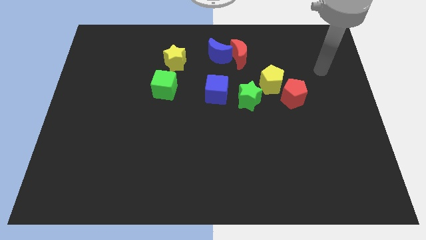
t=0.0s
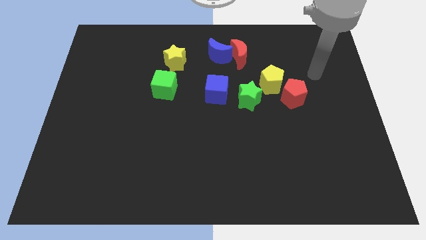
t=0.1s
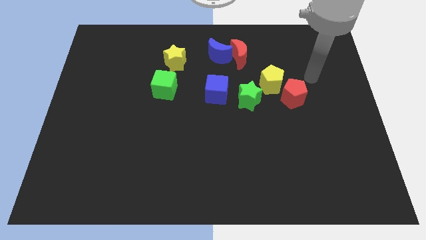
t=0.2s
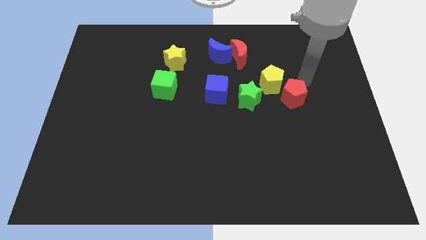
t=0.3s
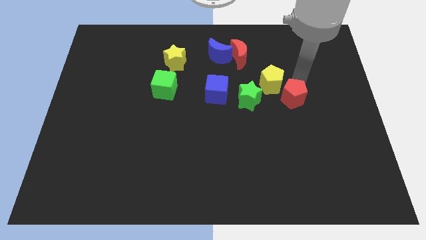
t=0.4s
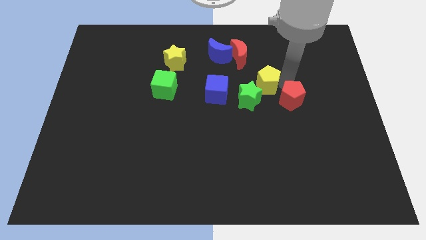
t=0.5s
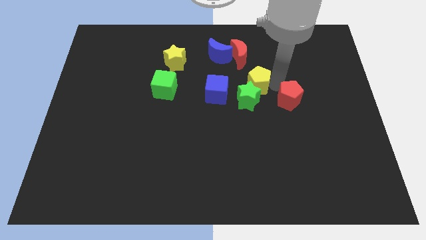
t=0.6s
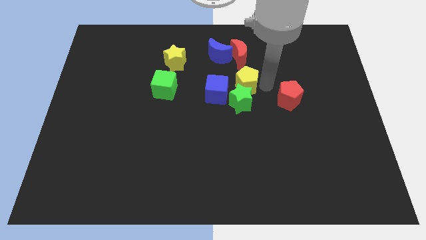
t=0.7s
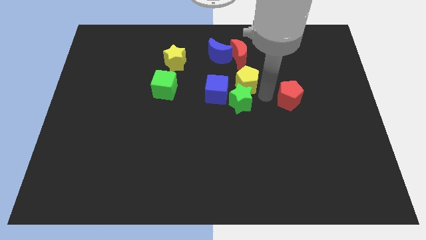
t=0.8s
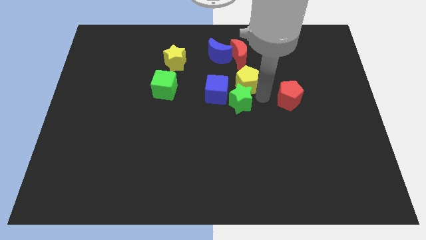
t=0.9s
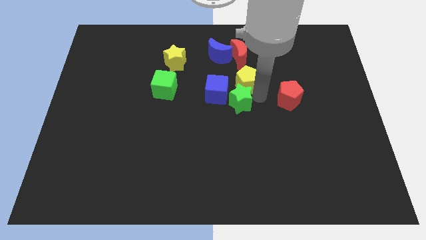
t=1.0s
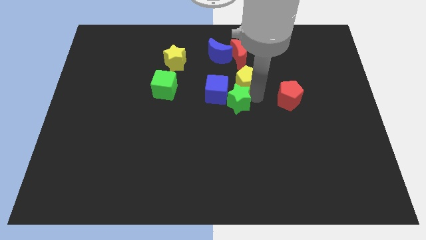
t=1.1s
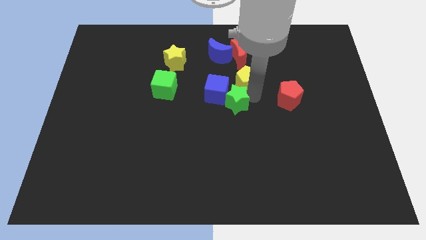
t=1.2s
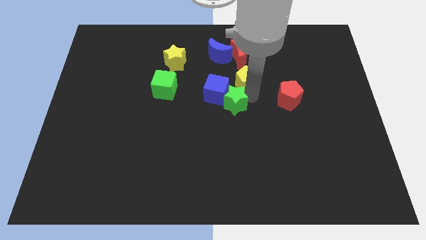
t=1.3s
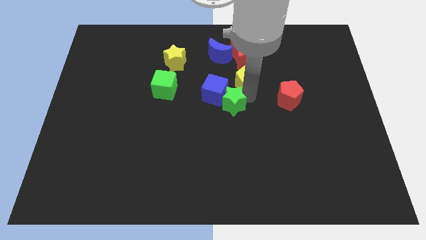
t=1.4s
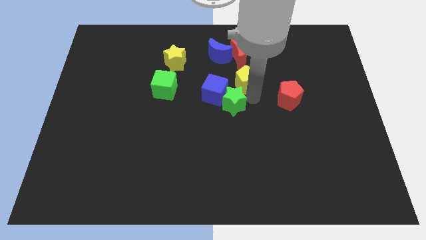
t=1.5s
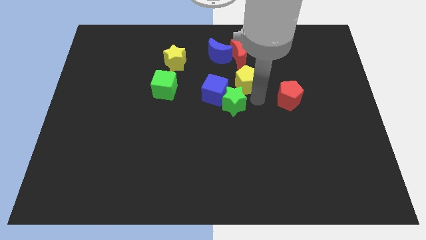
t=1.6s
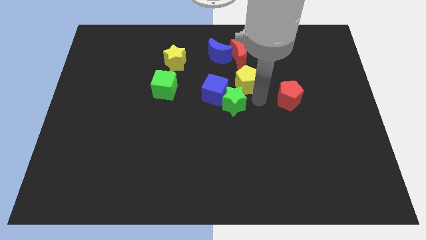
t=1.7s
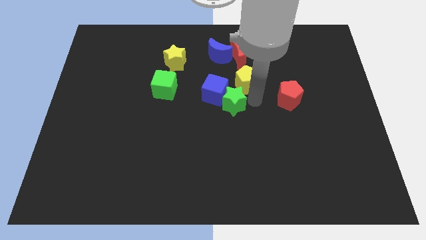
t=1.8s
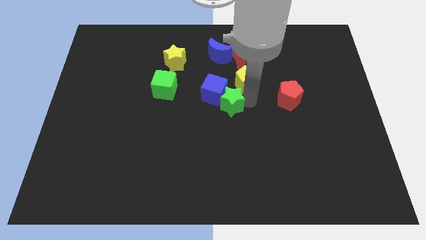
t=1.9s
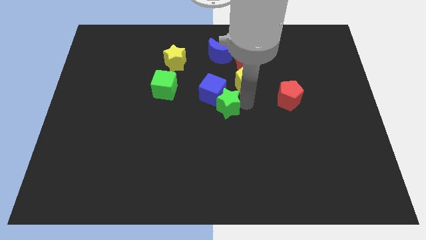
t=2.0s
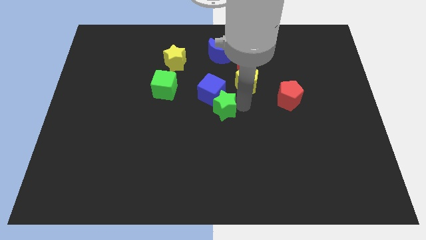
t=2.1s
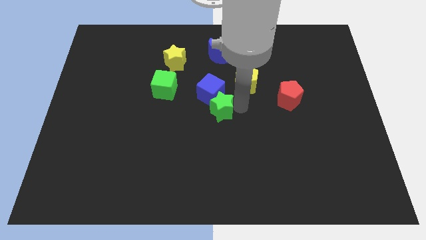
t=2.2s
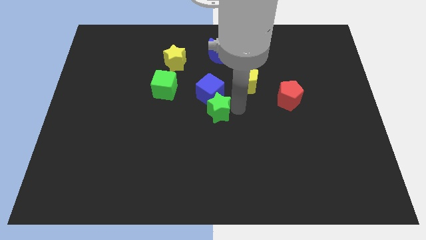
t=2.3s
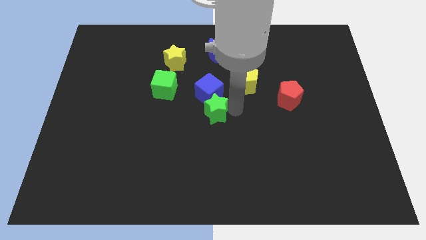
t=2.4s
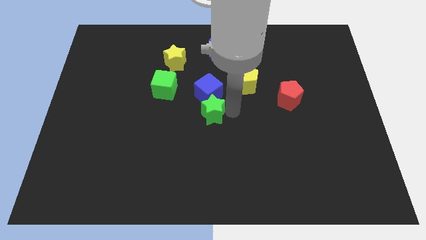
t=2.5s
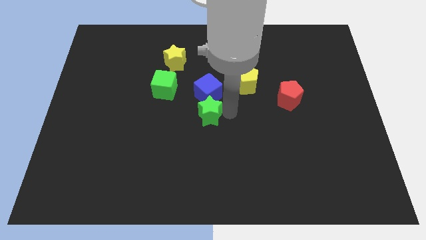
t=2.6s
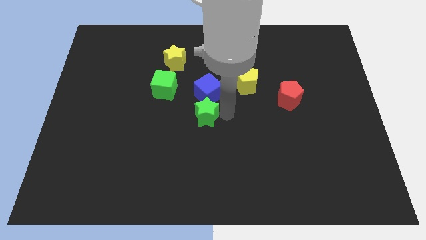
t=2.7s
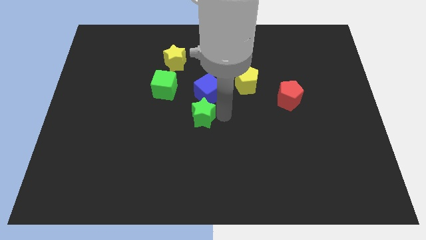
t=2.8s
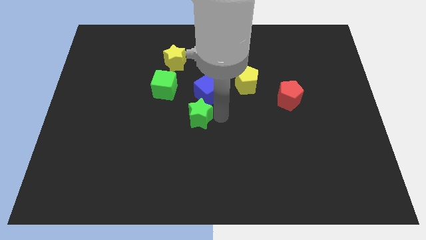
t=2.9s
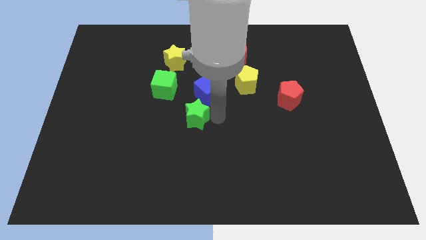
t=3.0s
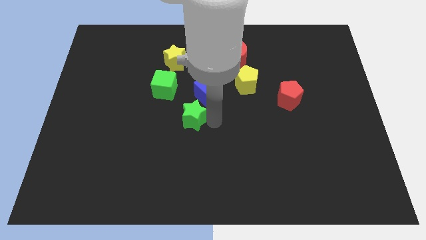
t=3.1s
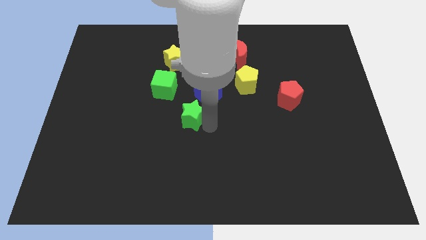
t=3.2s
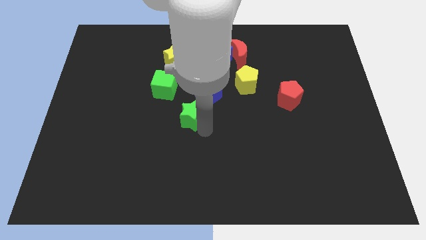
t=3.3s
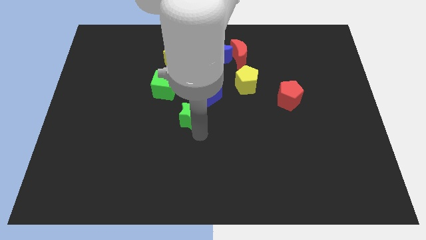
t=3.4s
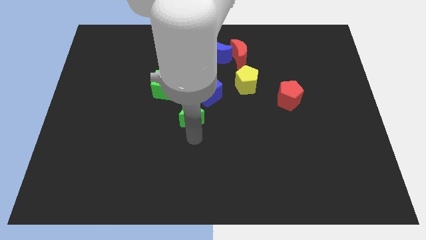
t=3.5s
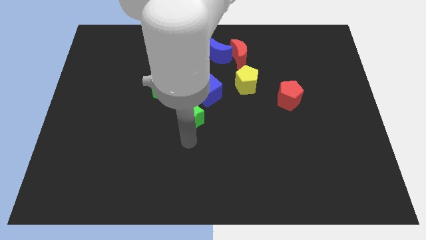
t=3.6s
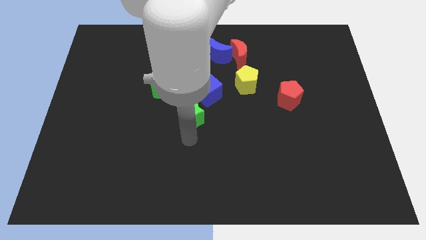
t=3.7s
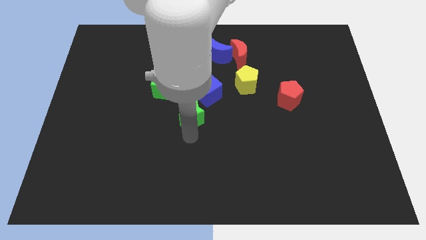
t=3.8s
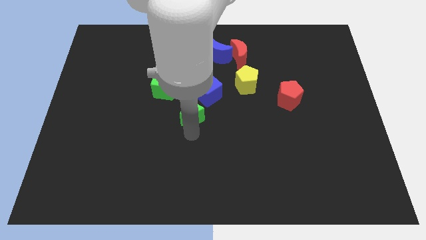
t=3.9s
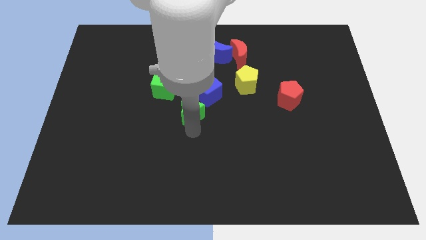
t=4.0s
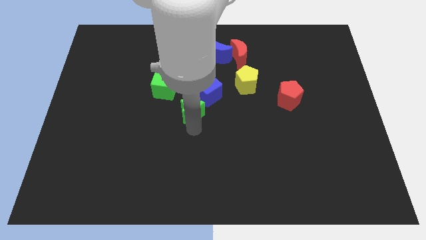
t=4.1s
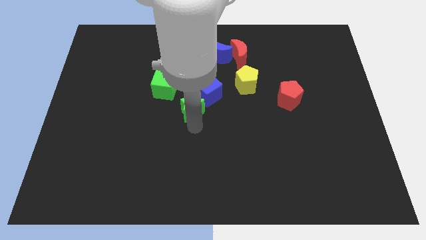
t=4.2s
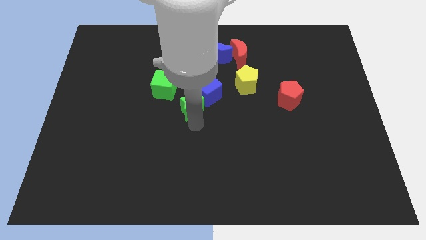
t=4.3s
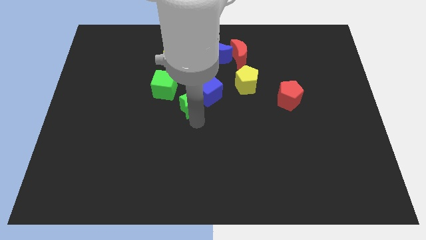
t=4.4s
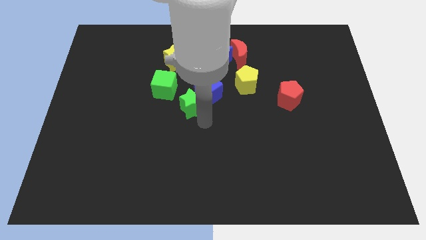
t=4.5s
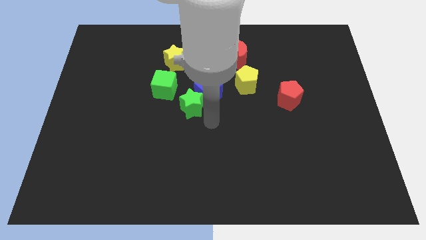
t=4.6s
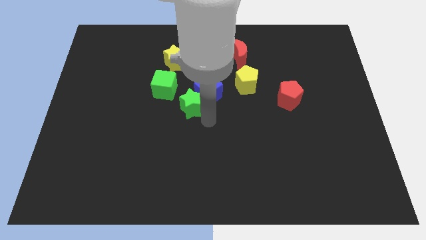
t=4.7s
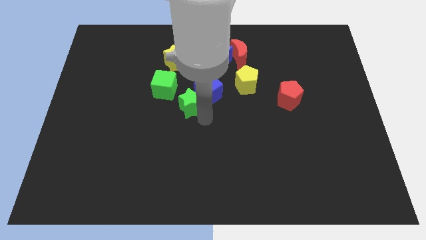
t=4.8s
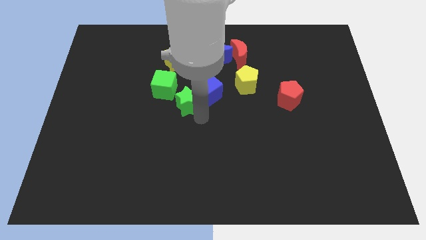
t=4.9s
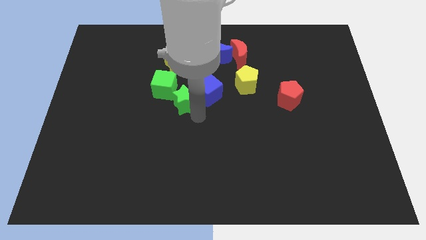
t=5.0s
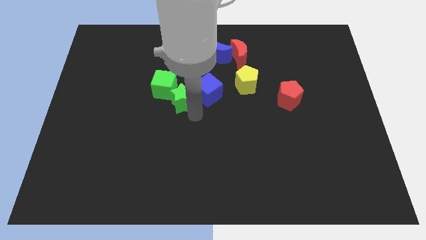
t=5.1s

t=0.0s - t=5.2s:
move the green star close to the green cube

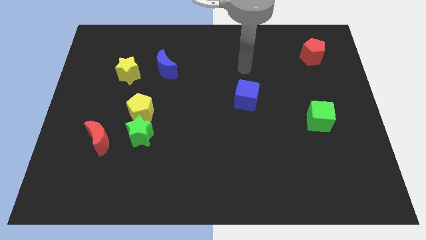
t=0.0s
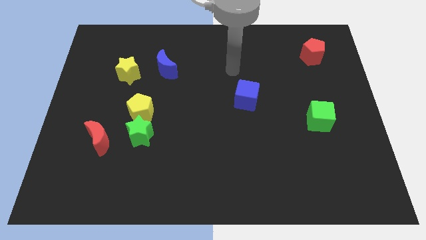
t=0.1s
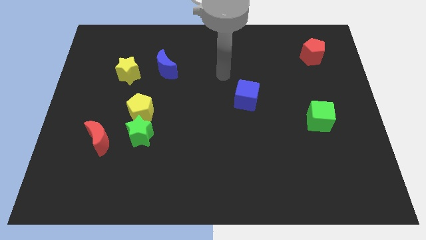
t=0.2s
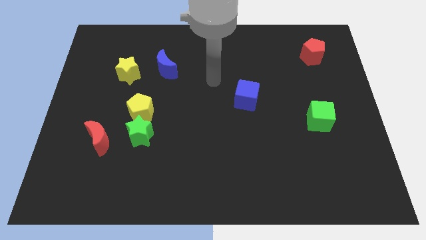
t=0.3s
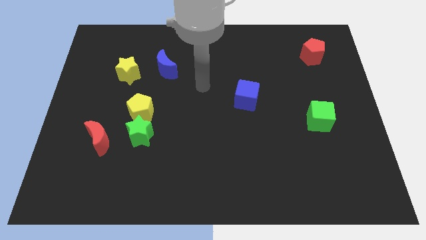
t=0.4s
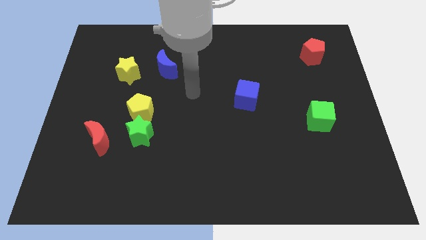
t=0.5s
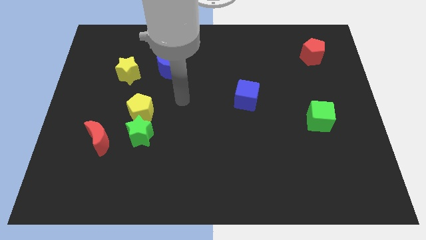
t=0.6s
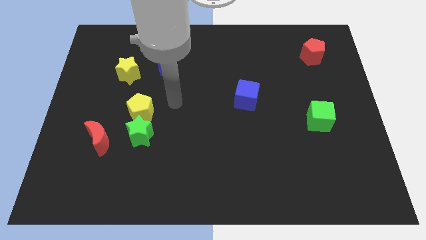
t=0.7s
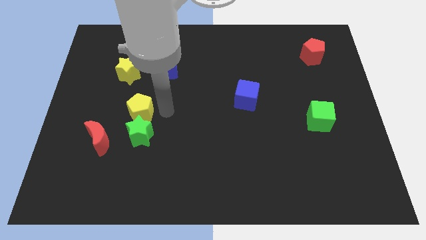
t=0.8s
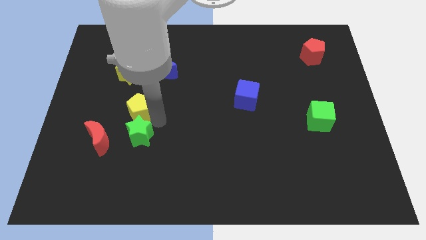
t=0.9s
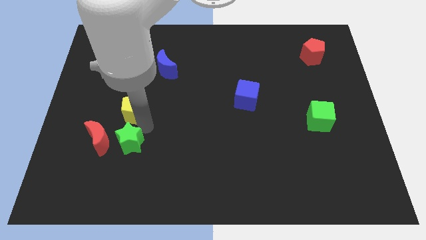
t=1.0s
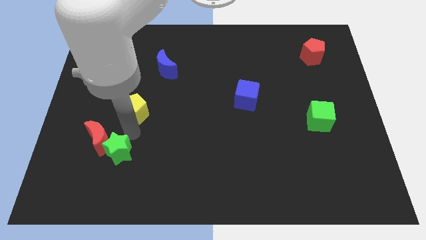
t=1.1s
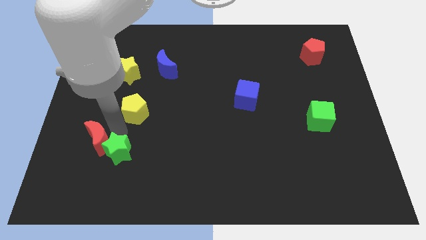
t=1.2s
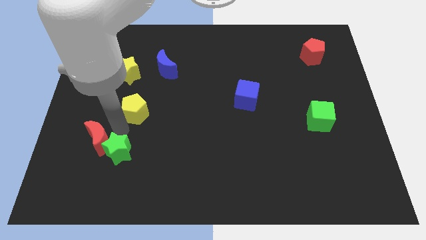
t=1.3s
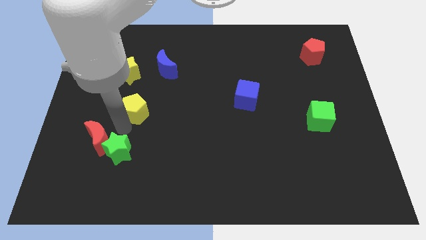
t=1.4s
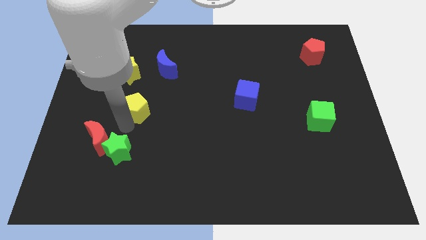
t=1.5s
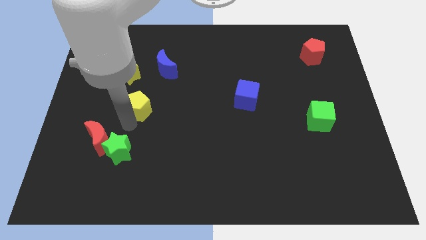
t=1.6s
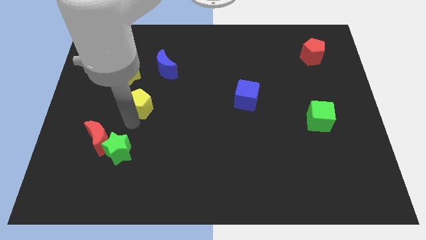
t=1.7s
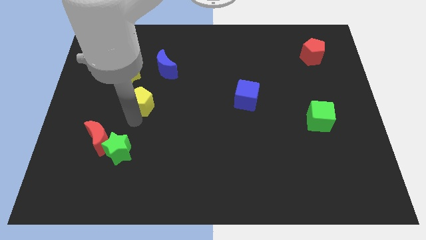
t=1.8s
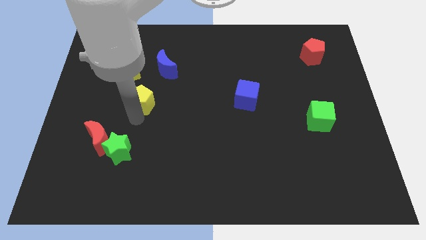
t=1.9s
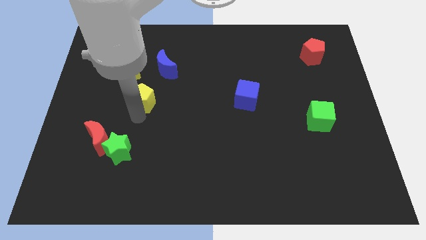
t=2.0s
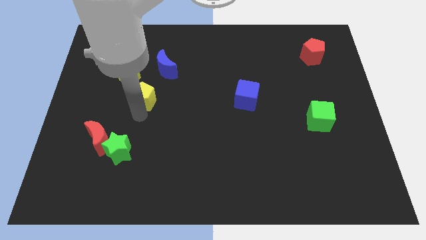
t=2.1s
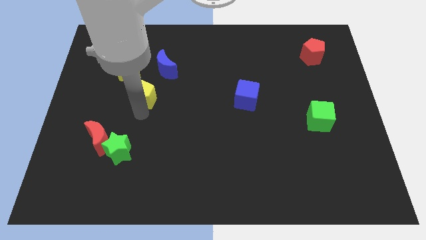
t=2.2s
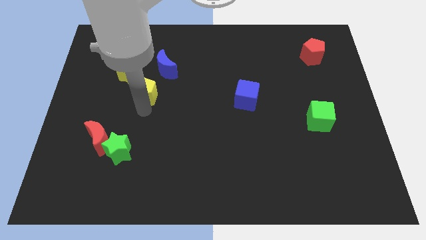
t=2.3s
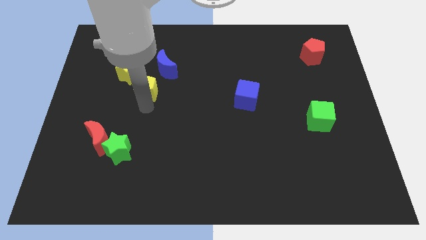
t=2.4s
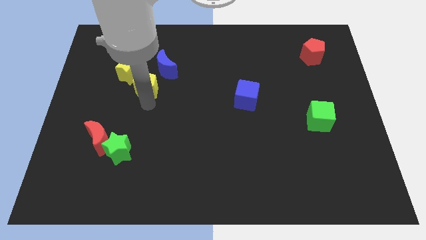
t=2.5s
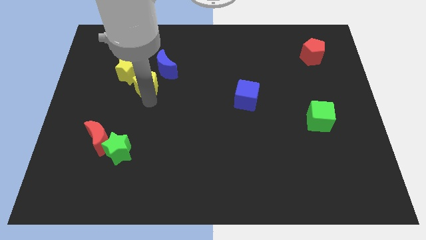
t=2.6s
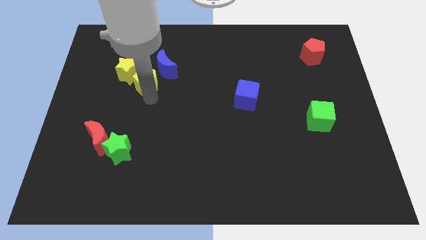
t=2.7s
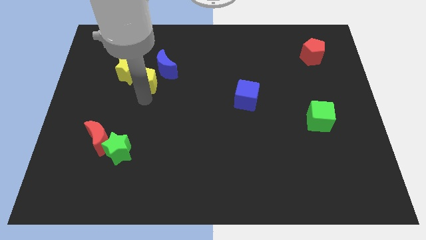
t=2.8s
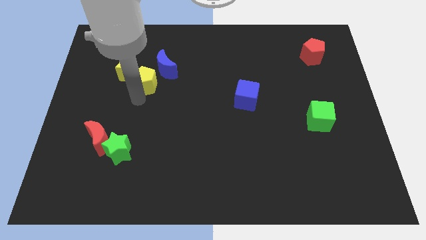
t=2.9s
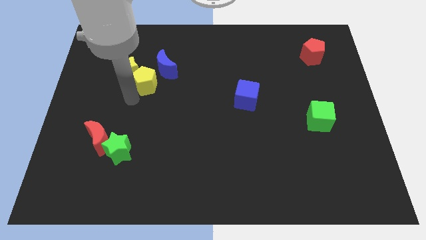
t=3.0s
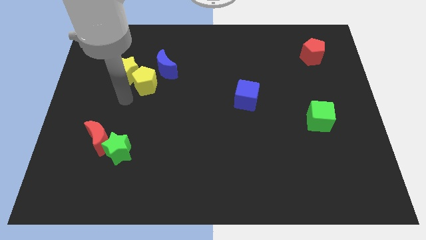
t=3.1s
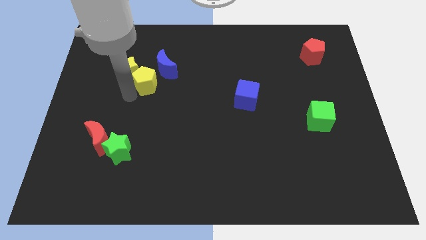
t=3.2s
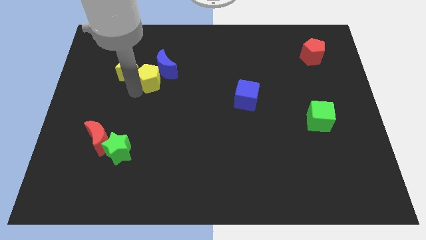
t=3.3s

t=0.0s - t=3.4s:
push the yellow pentagon towards the blue moon
